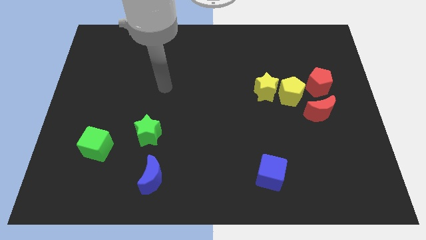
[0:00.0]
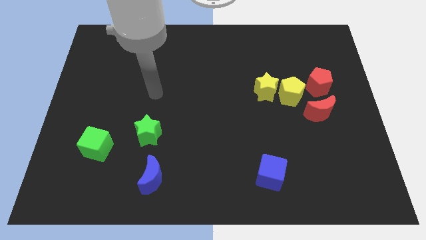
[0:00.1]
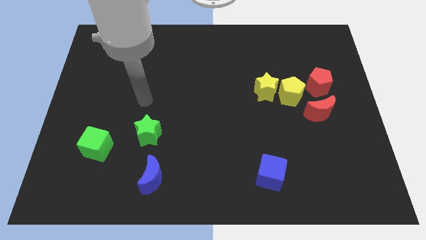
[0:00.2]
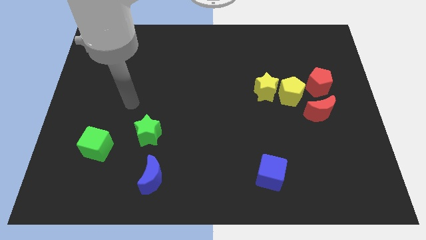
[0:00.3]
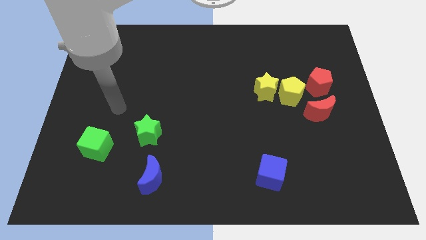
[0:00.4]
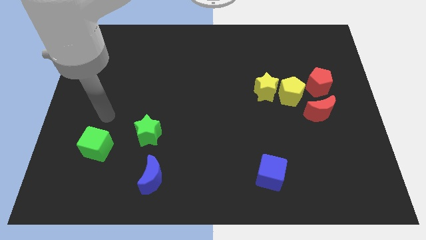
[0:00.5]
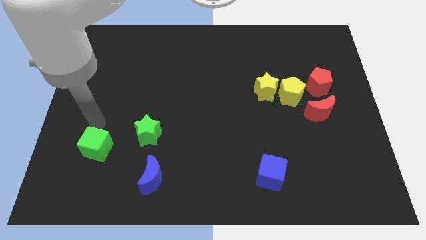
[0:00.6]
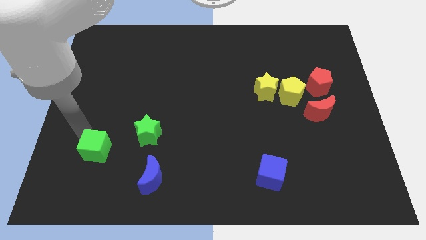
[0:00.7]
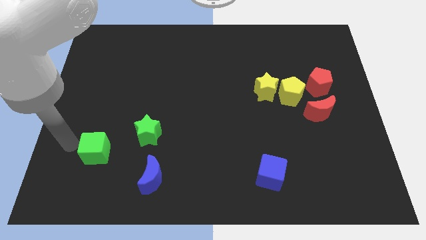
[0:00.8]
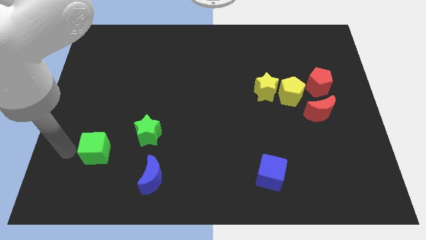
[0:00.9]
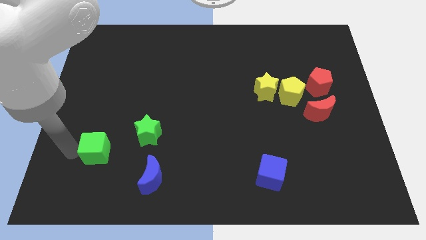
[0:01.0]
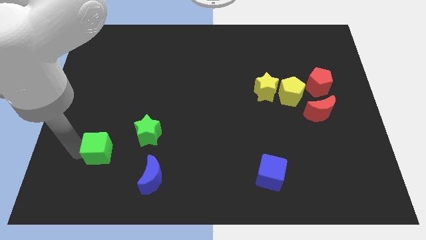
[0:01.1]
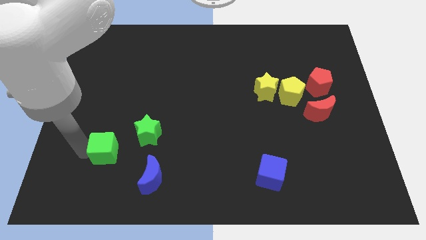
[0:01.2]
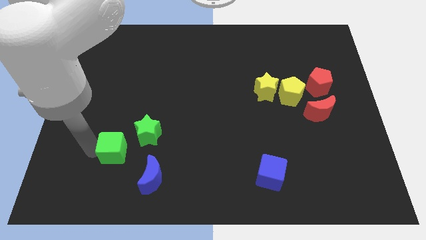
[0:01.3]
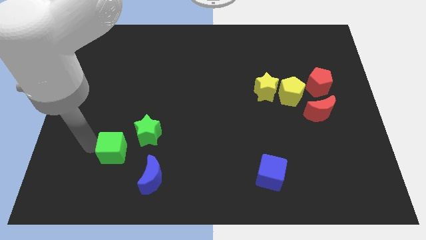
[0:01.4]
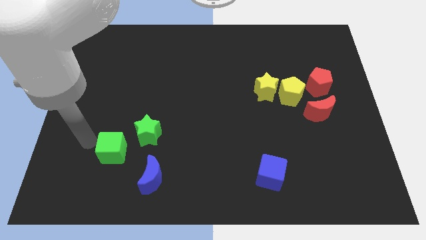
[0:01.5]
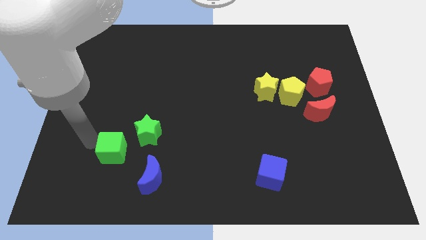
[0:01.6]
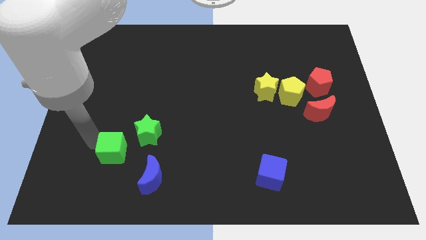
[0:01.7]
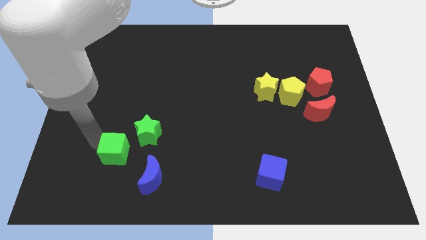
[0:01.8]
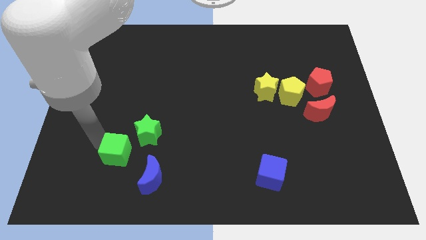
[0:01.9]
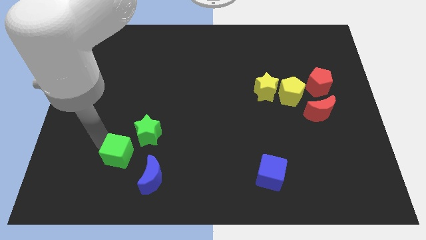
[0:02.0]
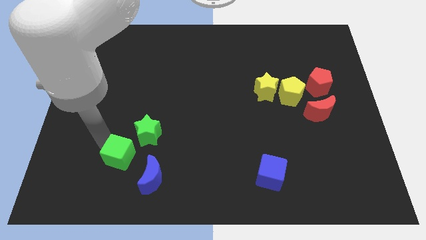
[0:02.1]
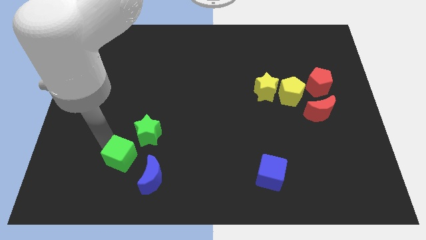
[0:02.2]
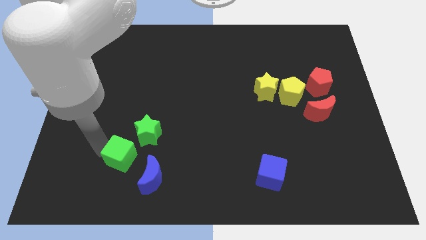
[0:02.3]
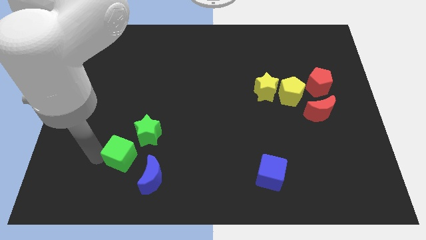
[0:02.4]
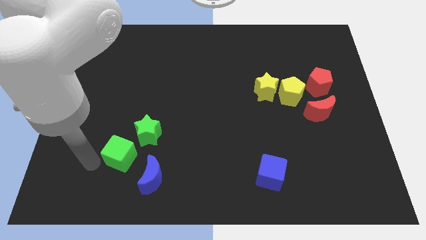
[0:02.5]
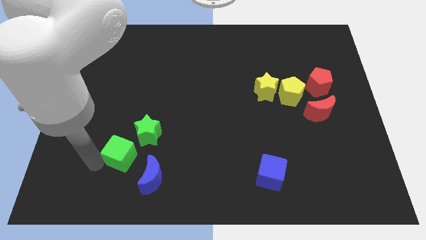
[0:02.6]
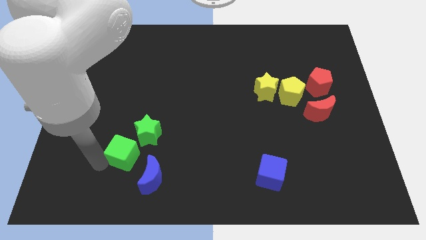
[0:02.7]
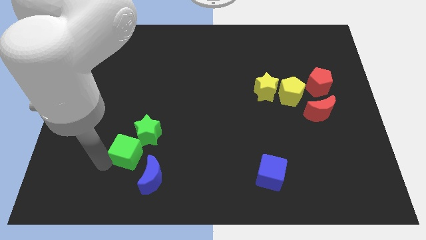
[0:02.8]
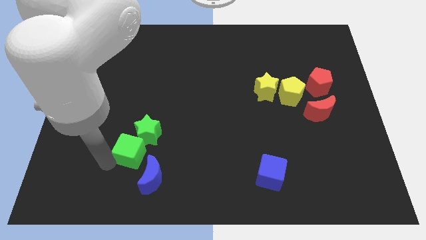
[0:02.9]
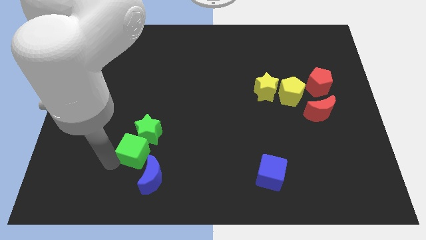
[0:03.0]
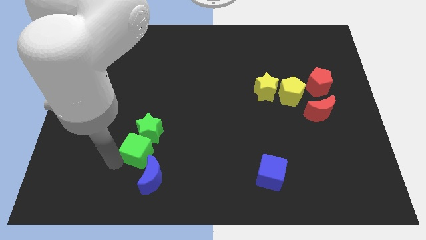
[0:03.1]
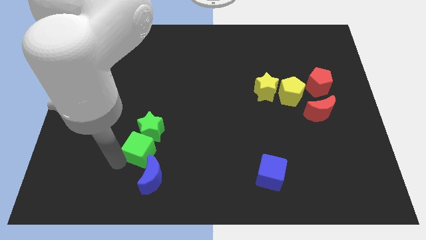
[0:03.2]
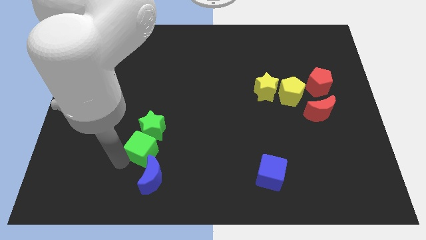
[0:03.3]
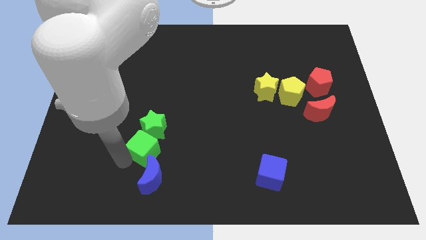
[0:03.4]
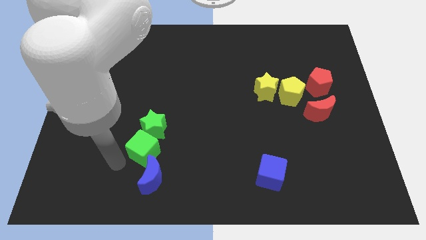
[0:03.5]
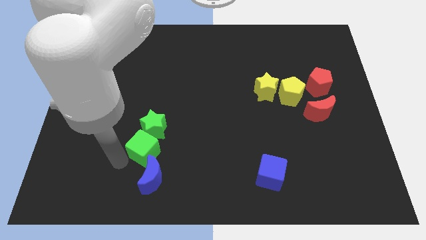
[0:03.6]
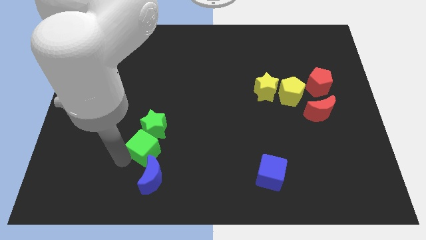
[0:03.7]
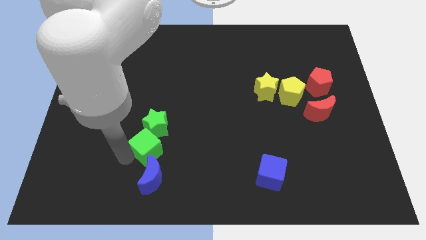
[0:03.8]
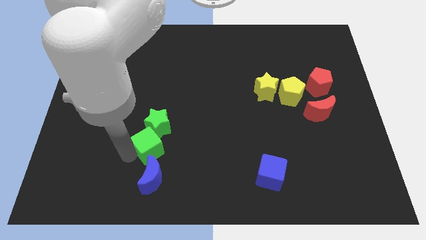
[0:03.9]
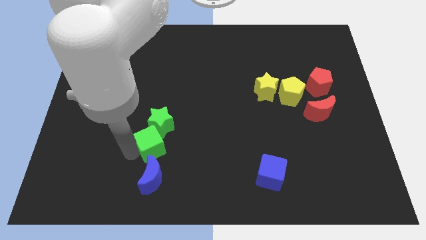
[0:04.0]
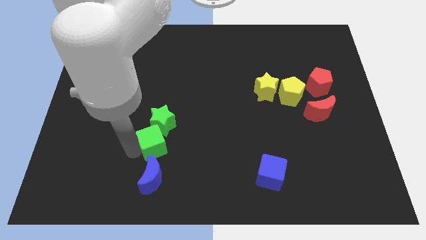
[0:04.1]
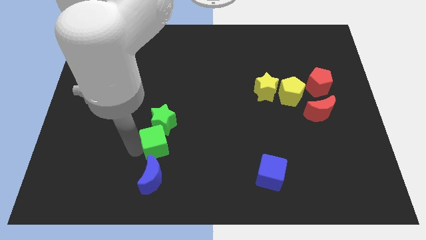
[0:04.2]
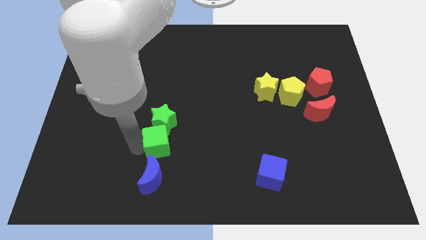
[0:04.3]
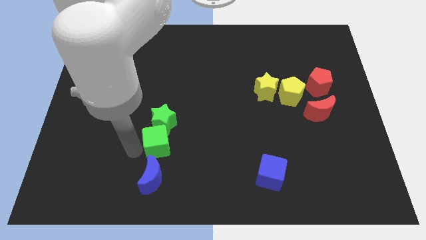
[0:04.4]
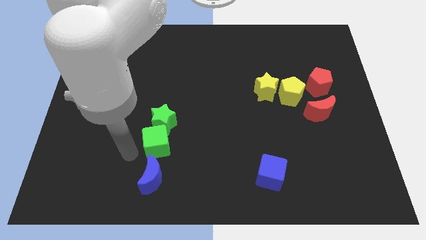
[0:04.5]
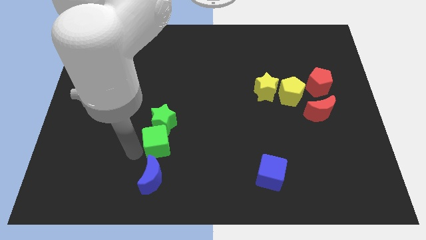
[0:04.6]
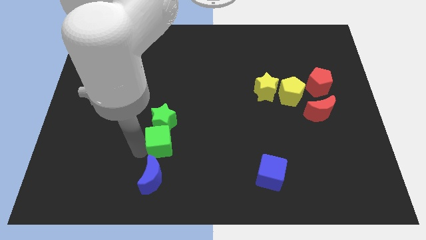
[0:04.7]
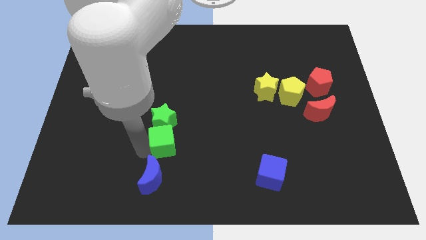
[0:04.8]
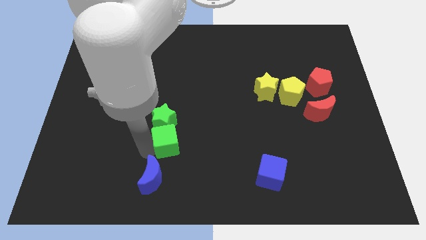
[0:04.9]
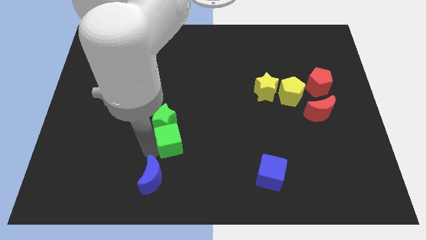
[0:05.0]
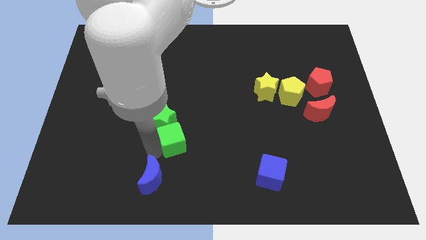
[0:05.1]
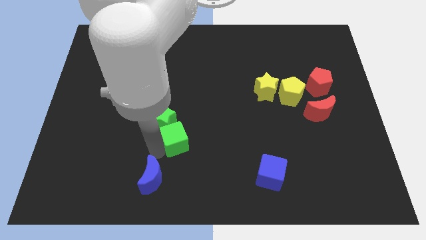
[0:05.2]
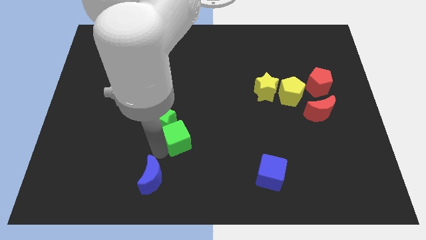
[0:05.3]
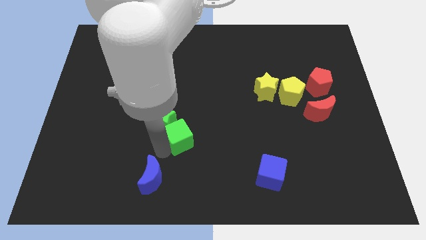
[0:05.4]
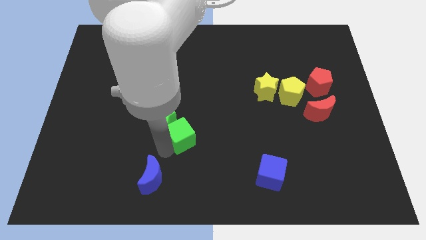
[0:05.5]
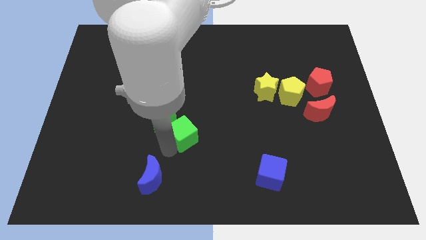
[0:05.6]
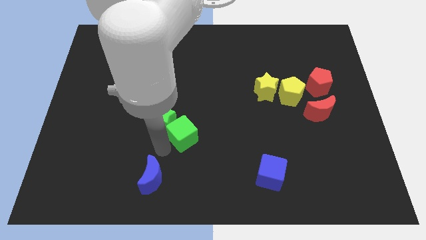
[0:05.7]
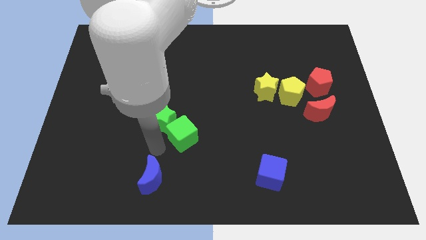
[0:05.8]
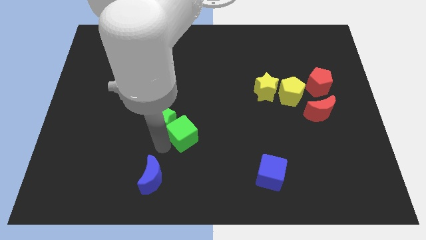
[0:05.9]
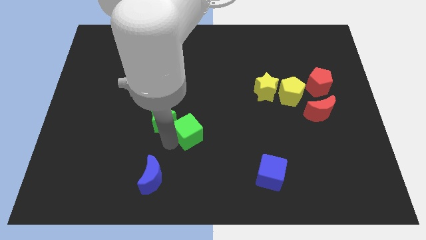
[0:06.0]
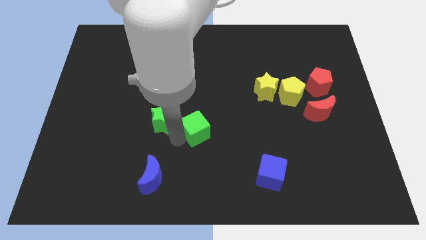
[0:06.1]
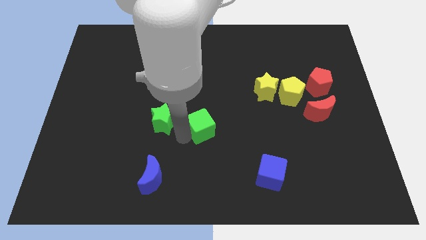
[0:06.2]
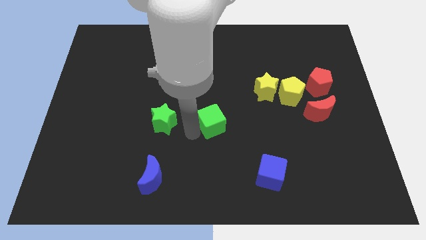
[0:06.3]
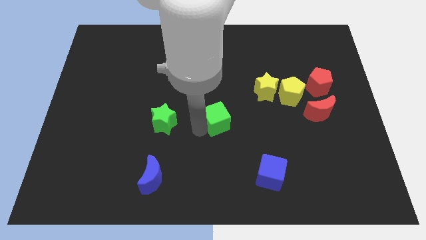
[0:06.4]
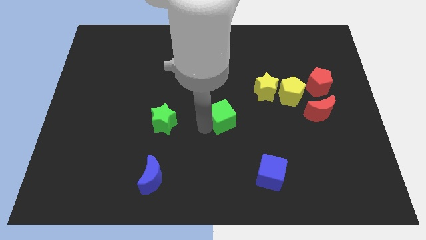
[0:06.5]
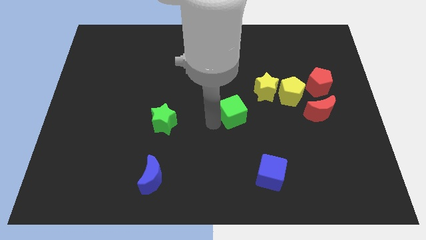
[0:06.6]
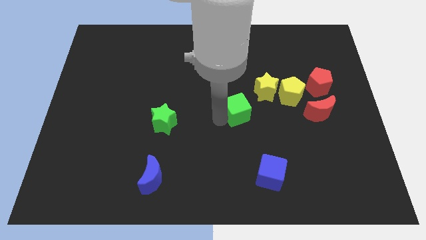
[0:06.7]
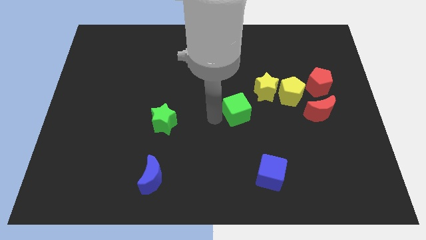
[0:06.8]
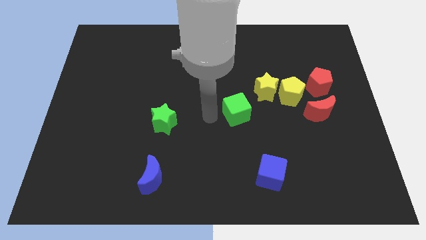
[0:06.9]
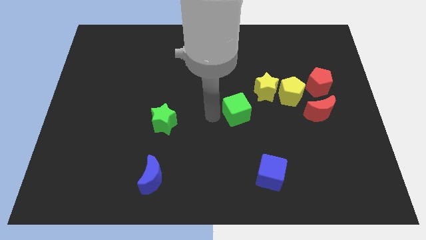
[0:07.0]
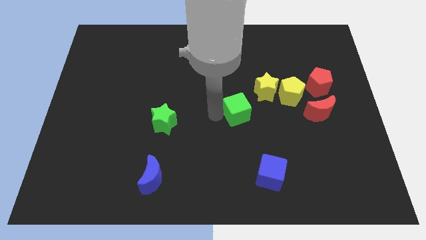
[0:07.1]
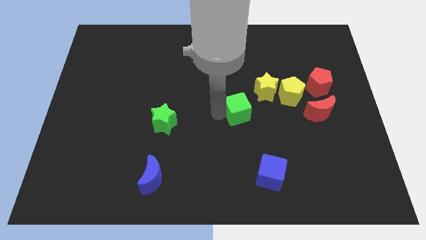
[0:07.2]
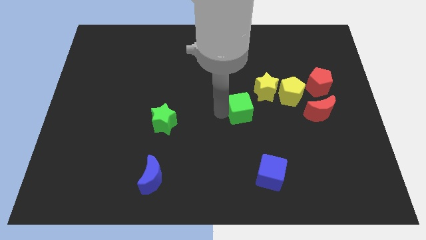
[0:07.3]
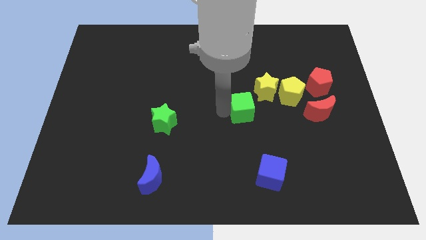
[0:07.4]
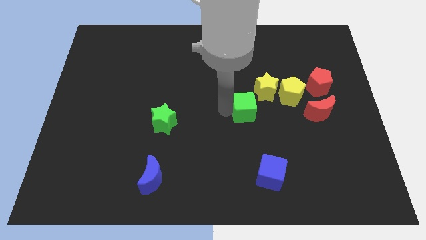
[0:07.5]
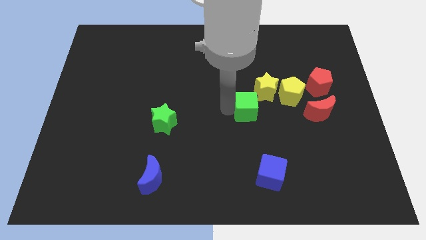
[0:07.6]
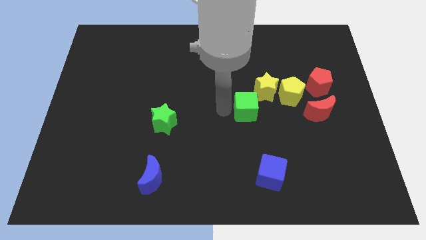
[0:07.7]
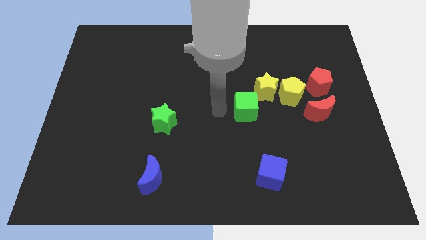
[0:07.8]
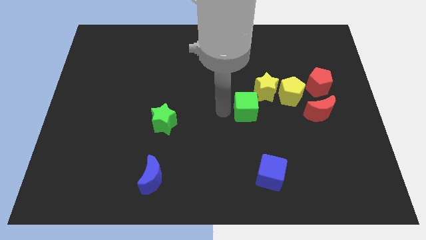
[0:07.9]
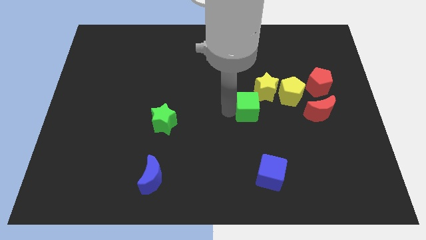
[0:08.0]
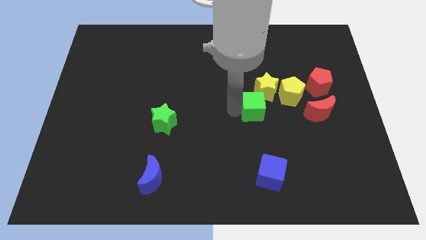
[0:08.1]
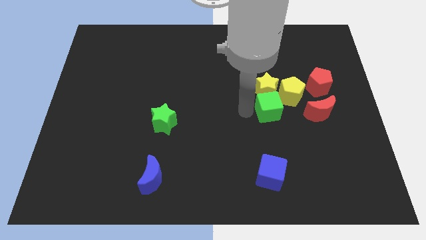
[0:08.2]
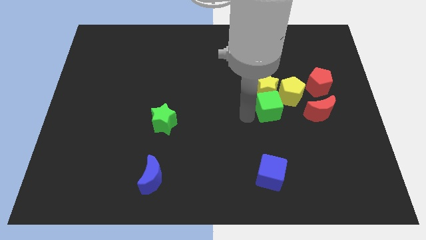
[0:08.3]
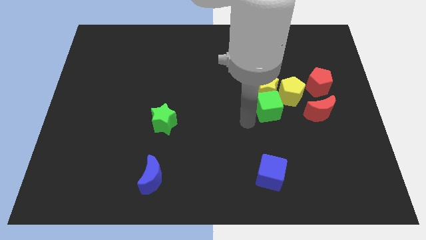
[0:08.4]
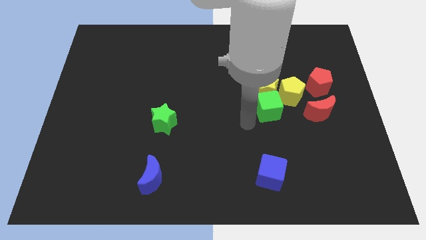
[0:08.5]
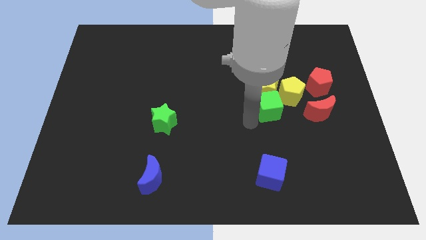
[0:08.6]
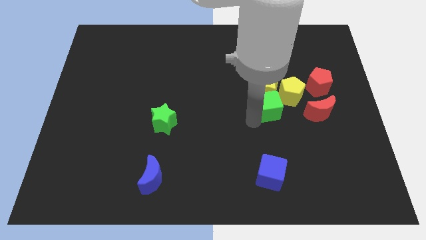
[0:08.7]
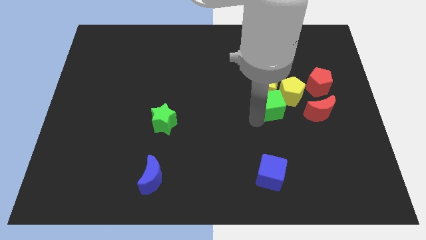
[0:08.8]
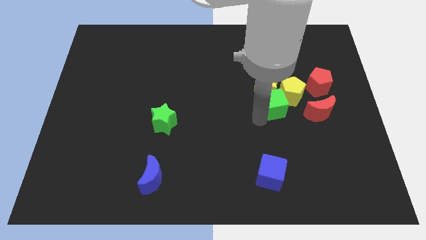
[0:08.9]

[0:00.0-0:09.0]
slide the green cube close to the yellow pentagon
